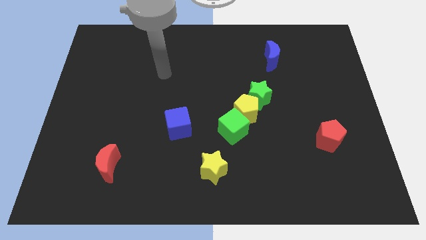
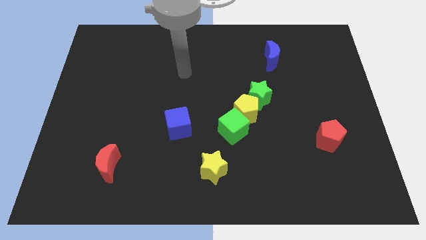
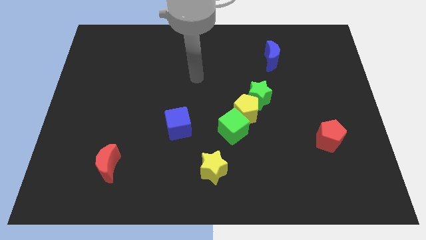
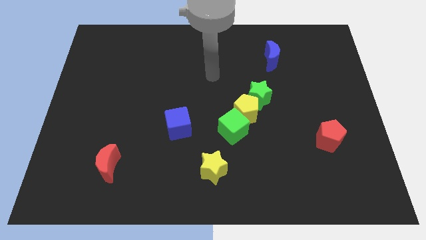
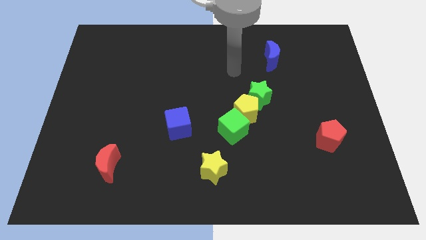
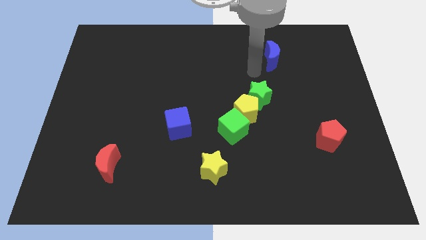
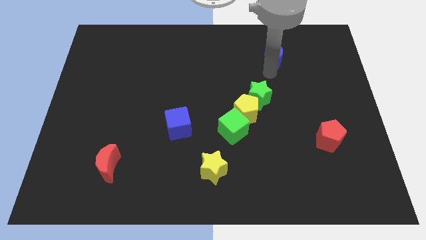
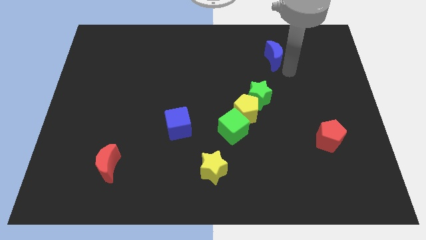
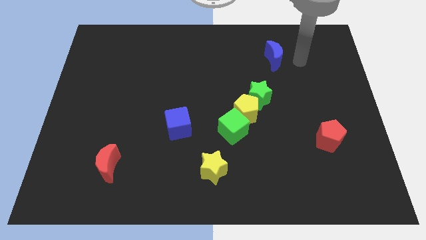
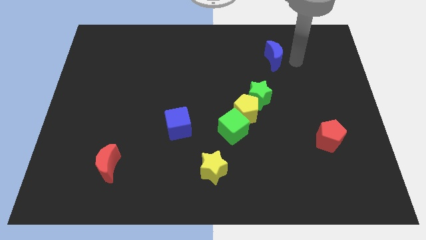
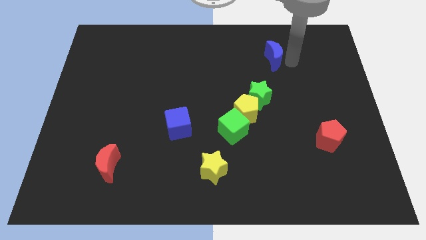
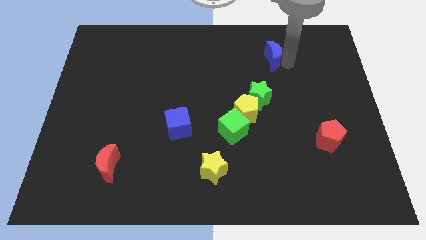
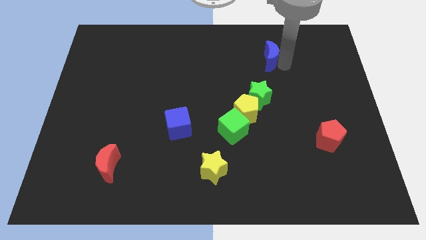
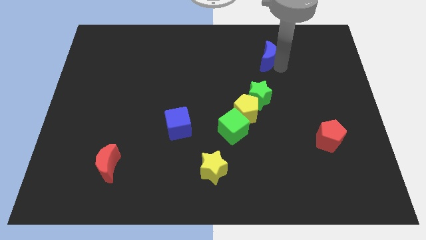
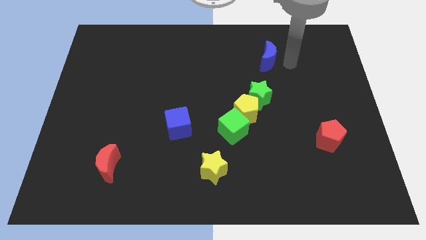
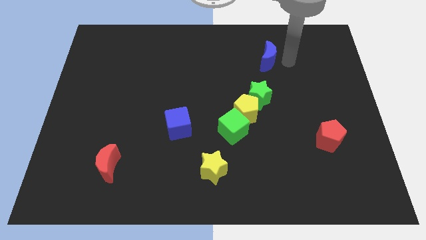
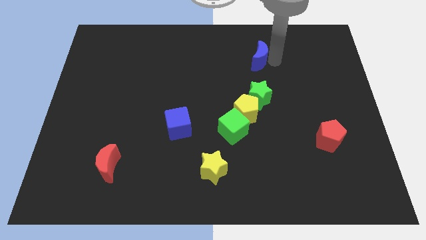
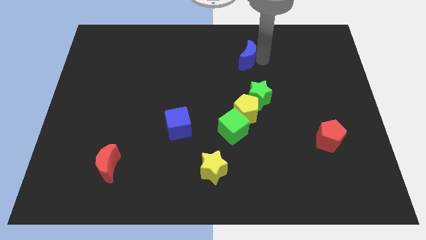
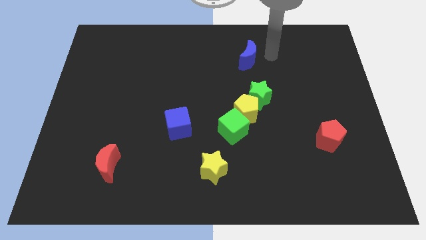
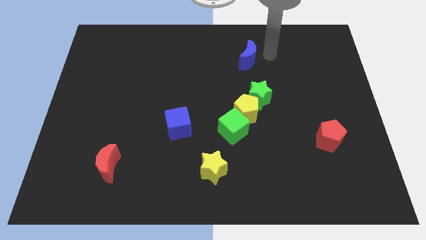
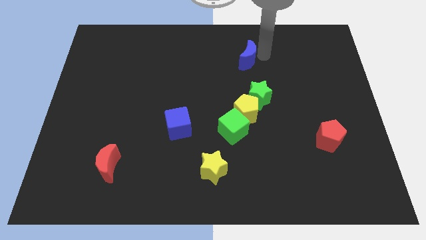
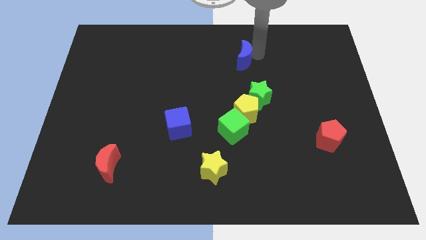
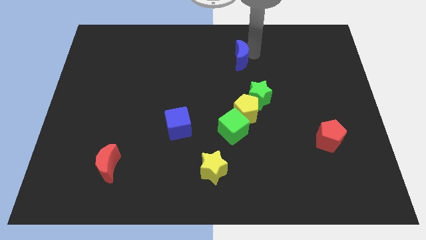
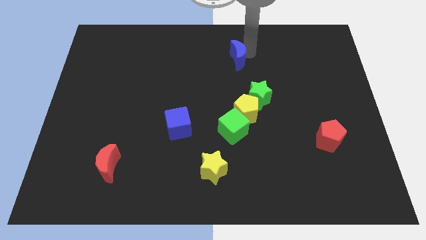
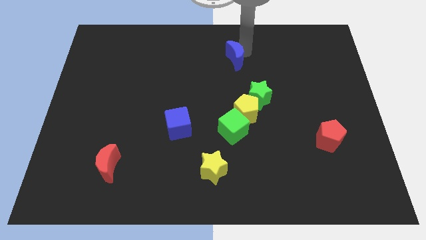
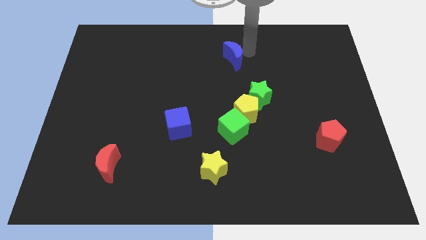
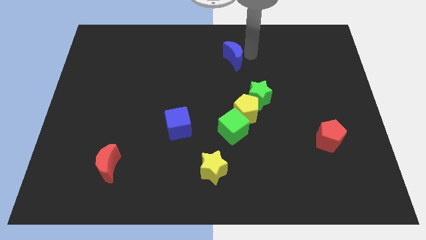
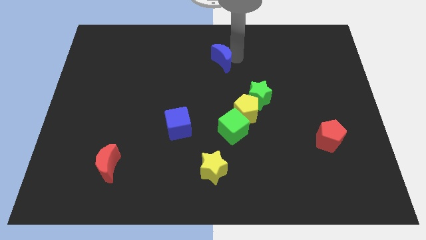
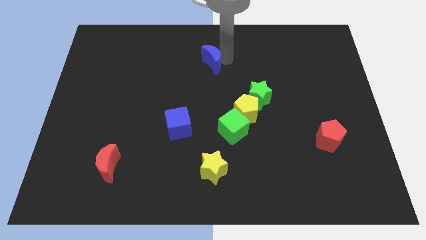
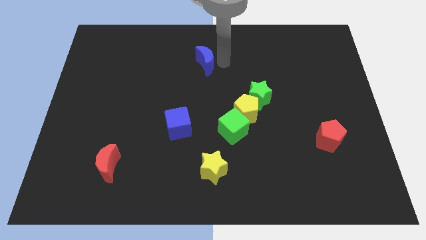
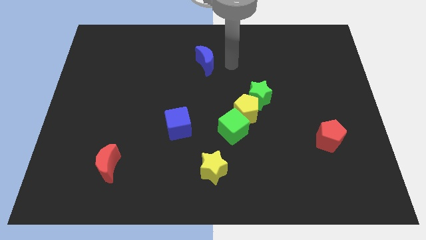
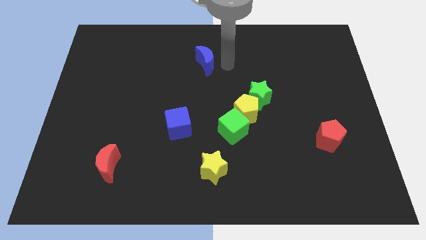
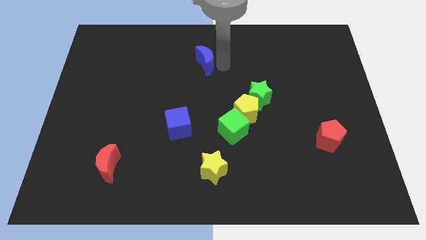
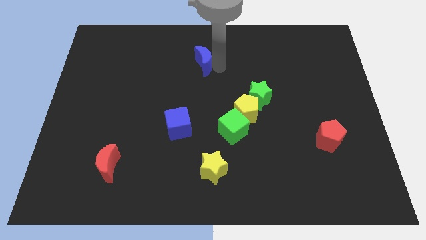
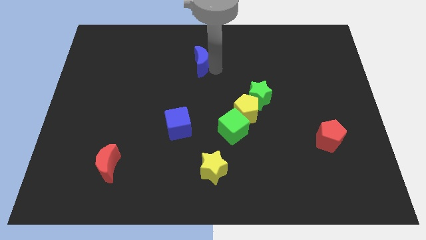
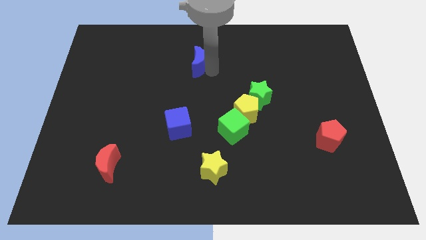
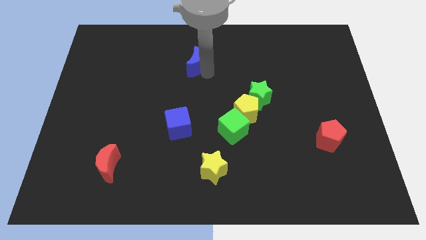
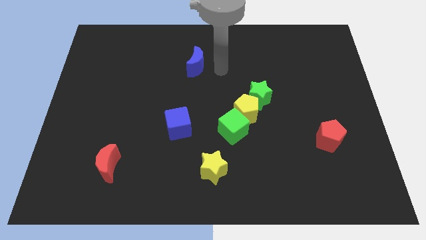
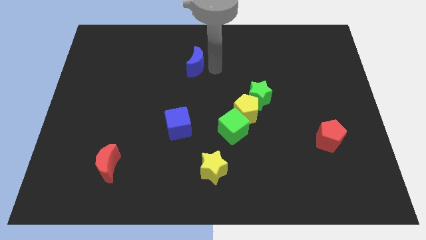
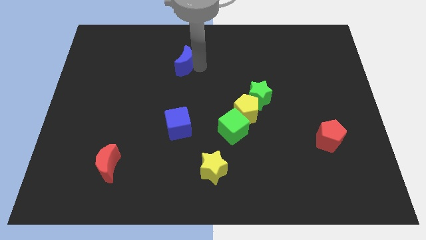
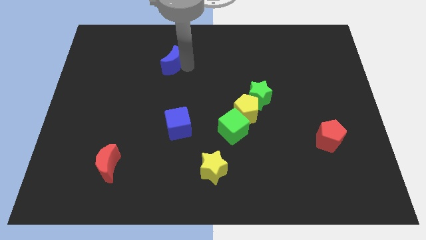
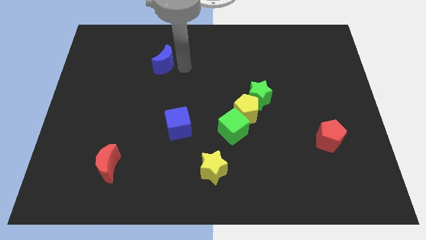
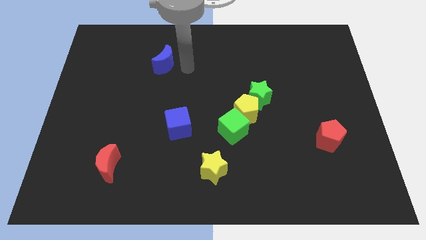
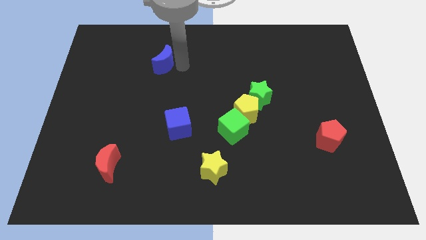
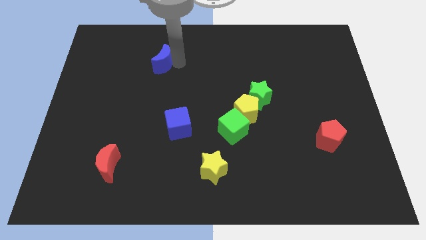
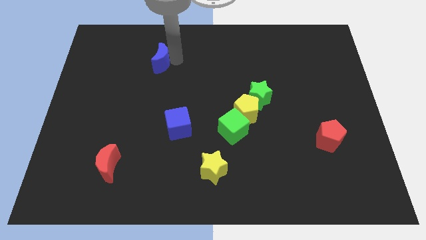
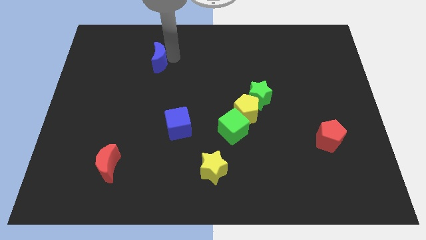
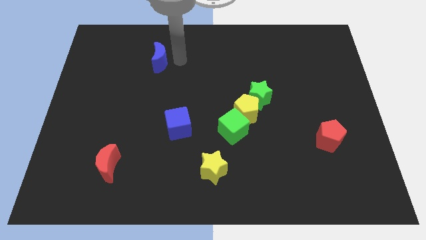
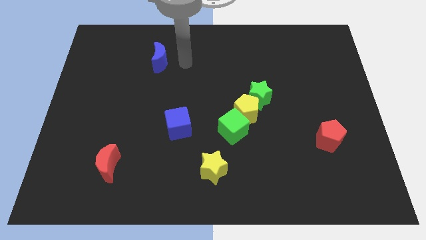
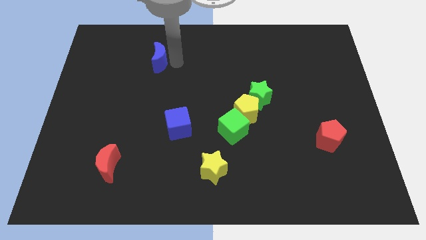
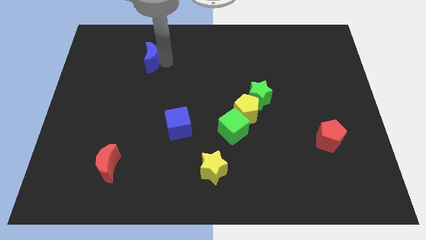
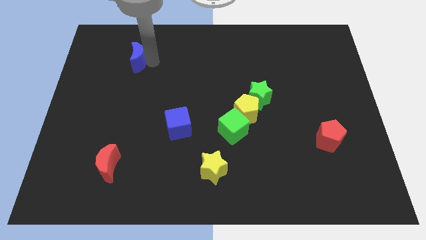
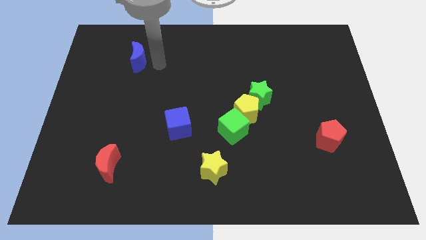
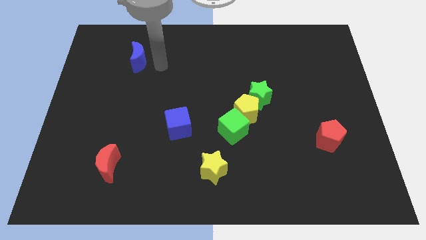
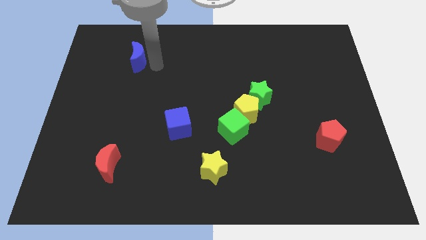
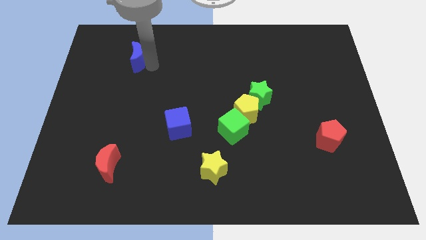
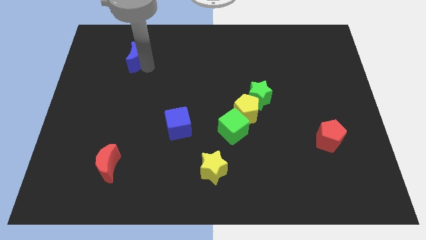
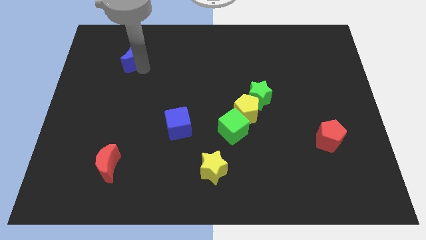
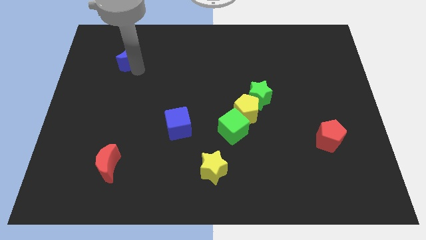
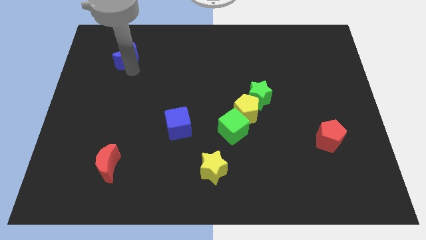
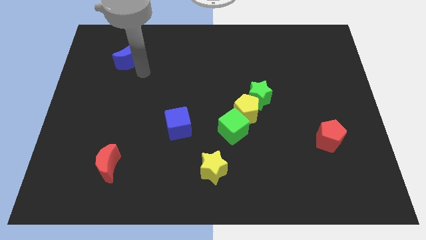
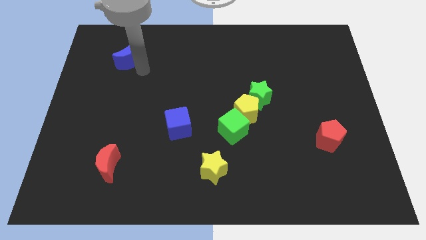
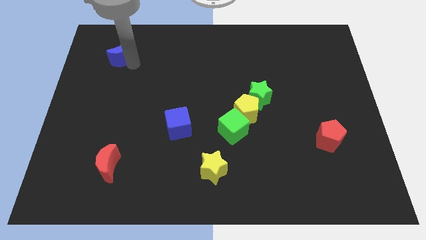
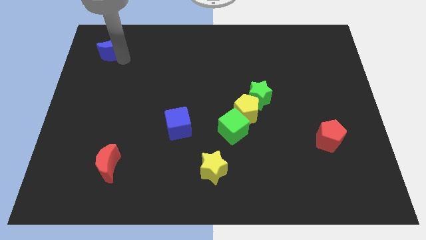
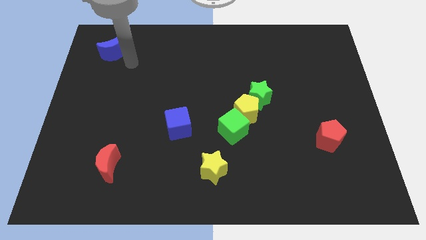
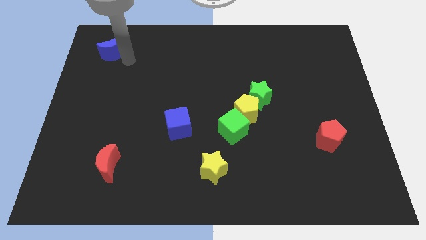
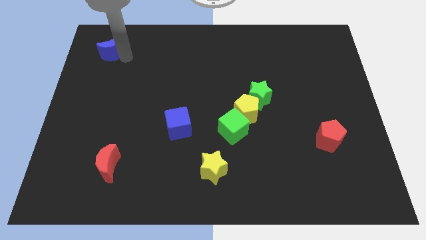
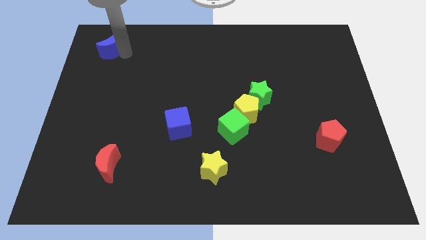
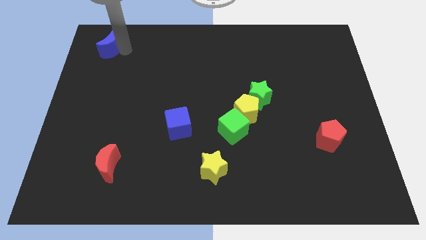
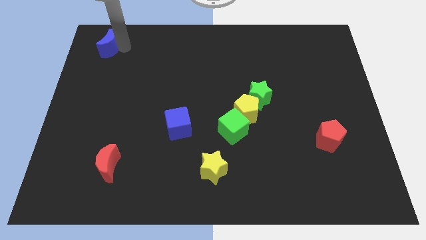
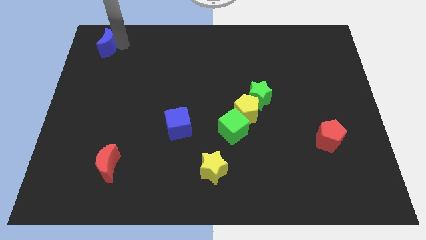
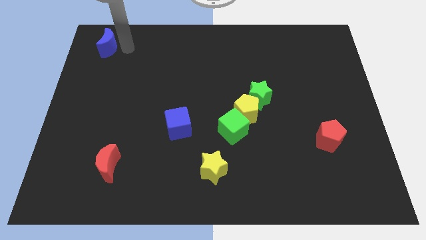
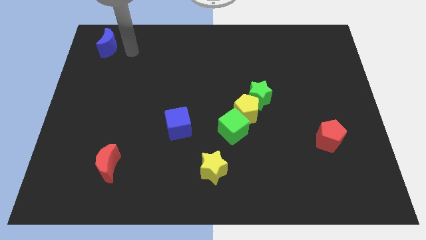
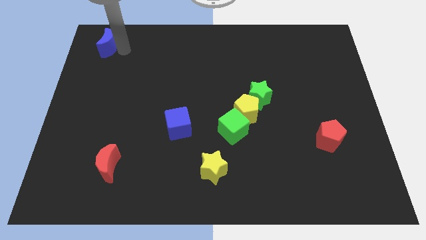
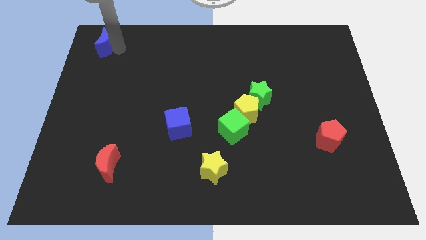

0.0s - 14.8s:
push the blue moon to the top left of the board
